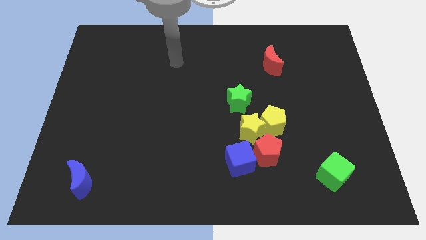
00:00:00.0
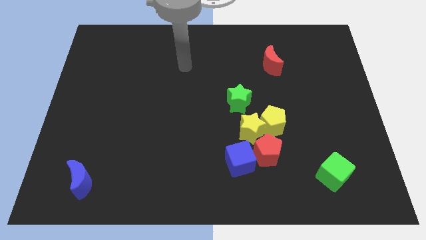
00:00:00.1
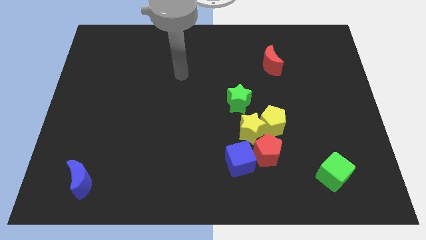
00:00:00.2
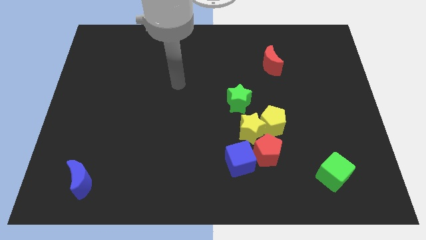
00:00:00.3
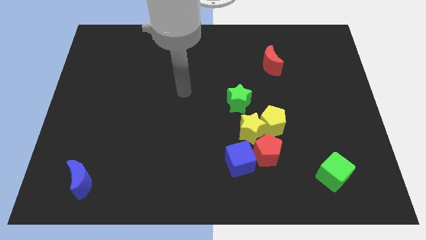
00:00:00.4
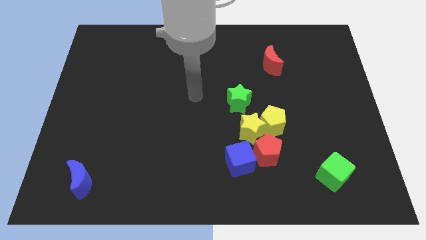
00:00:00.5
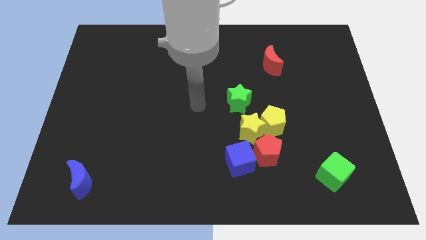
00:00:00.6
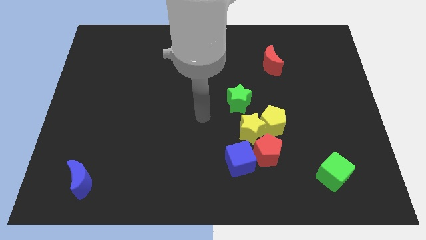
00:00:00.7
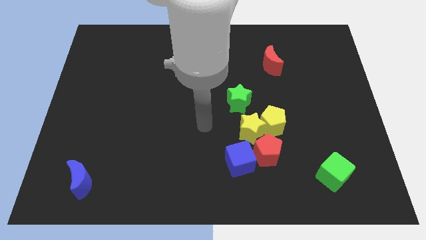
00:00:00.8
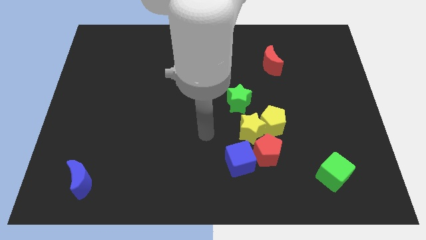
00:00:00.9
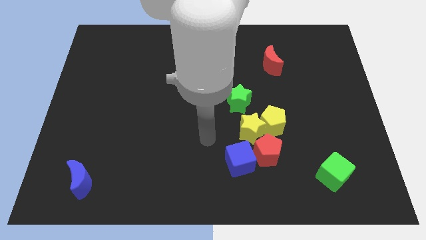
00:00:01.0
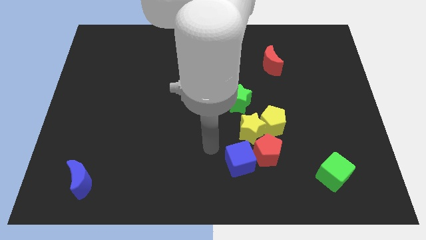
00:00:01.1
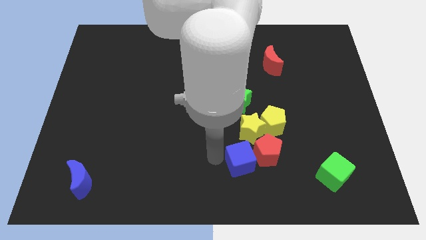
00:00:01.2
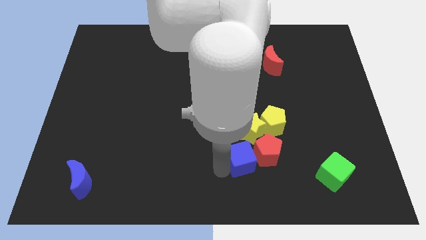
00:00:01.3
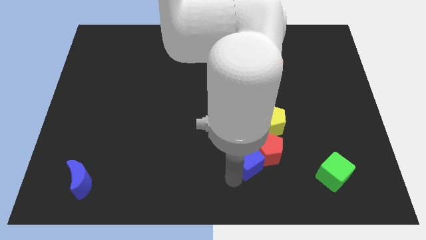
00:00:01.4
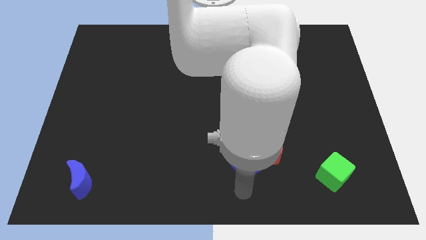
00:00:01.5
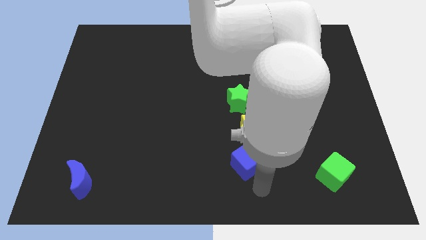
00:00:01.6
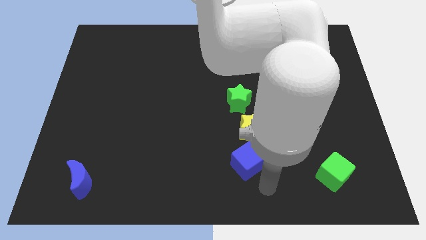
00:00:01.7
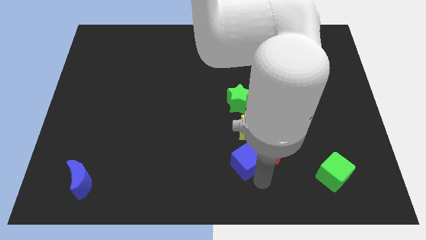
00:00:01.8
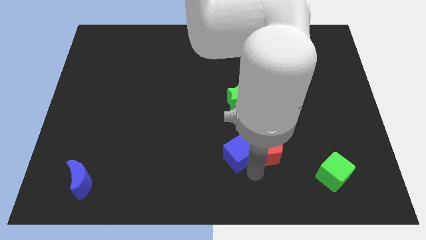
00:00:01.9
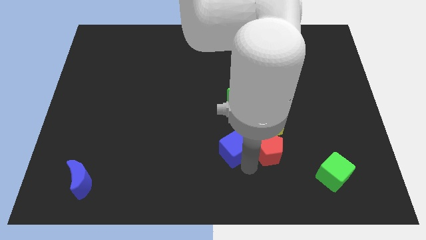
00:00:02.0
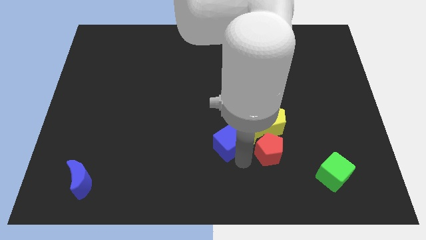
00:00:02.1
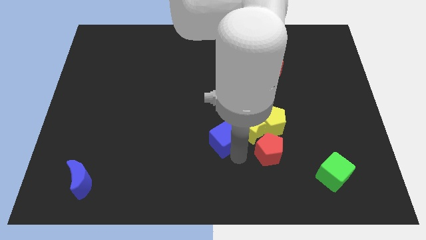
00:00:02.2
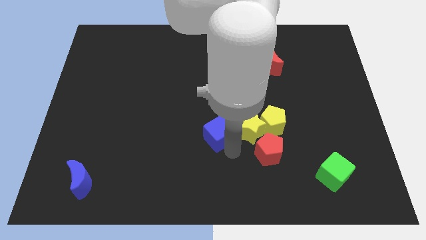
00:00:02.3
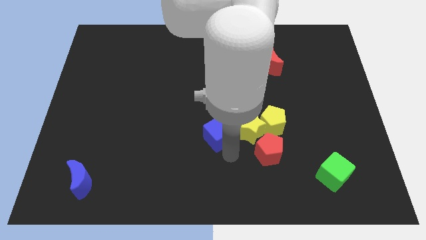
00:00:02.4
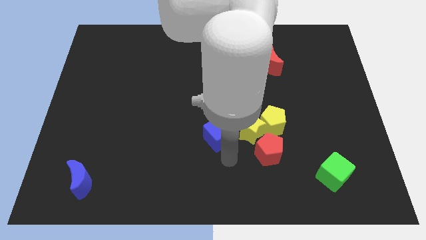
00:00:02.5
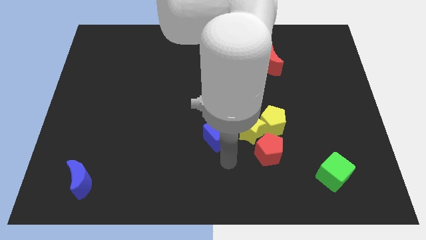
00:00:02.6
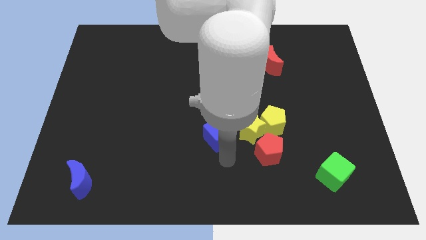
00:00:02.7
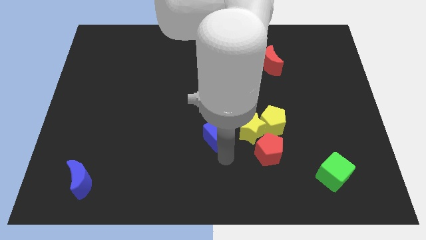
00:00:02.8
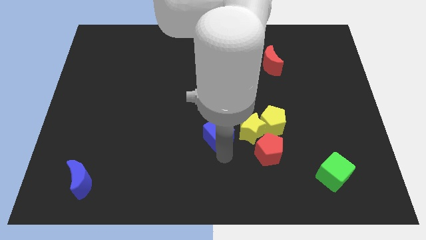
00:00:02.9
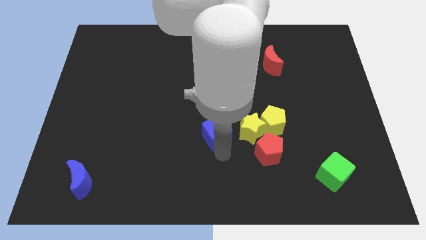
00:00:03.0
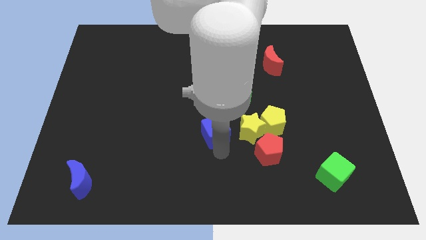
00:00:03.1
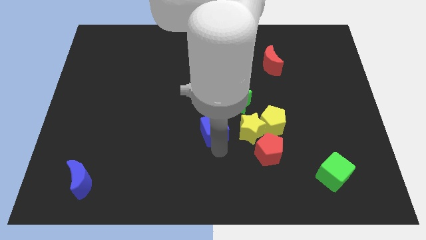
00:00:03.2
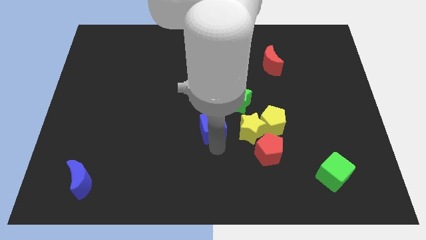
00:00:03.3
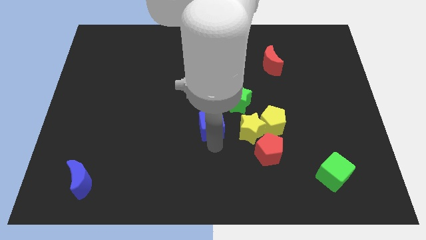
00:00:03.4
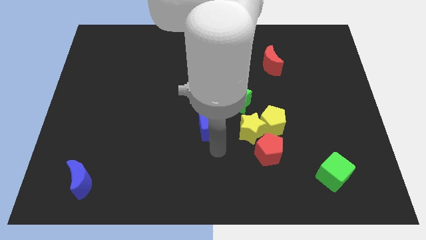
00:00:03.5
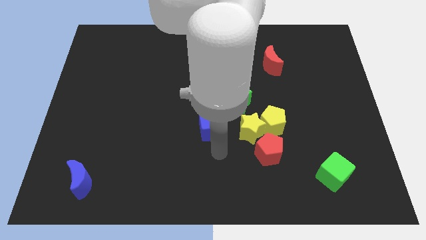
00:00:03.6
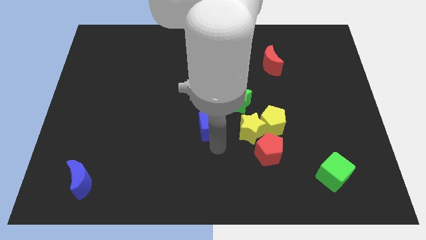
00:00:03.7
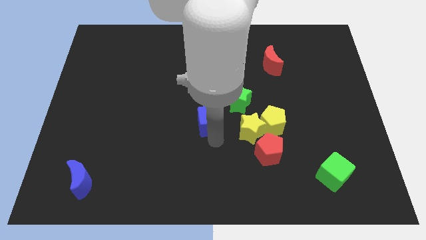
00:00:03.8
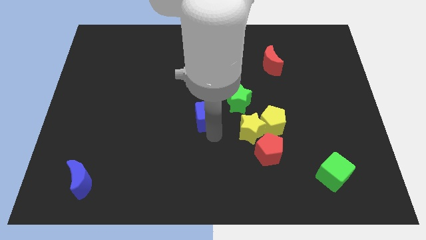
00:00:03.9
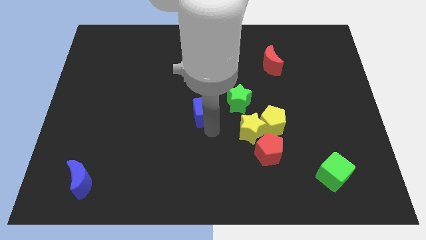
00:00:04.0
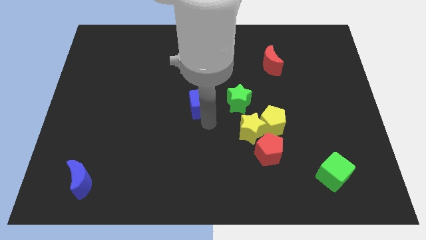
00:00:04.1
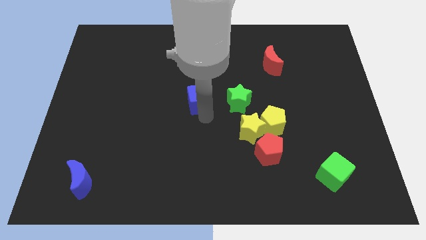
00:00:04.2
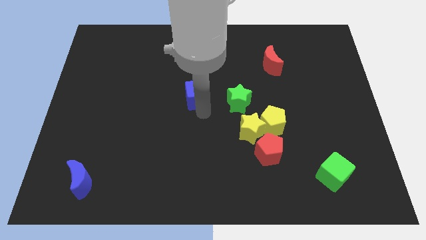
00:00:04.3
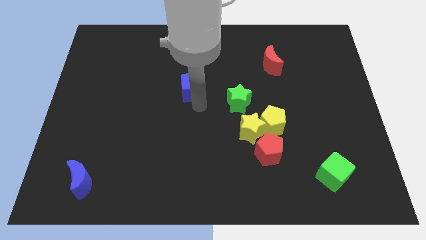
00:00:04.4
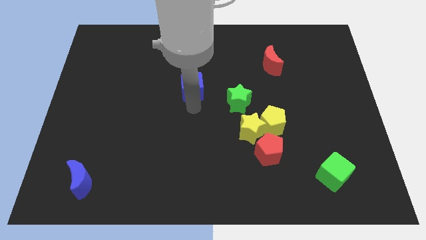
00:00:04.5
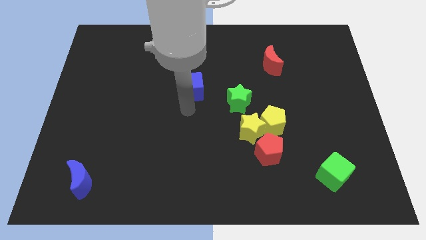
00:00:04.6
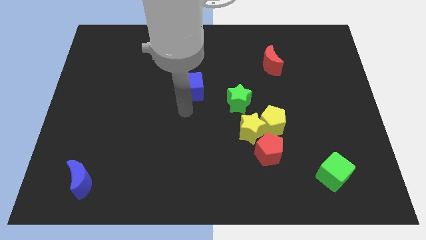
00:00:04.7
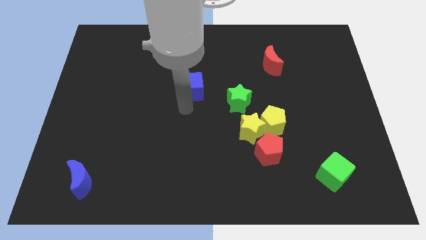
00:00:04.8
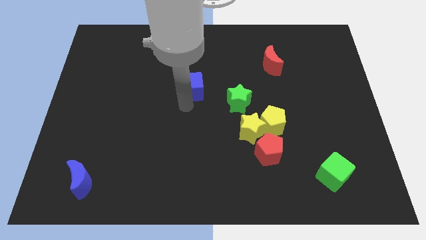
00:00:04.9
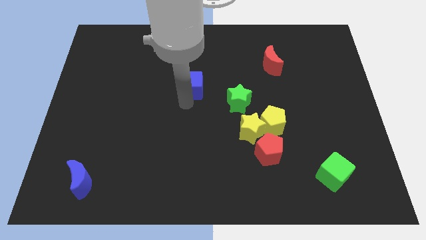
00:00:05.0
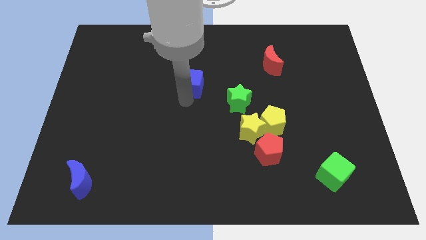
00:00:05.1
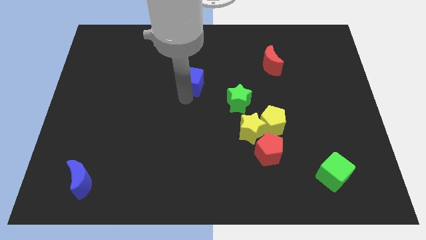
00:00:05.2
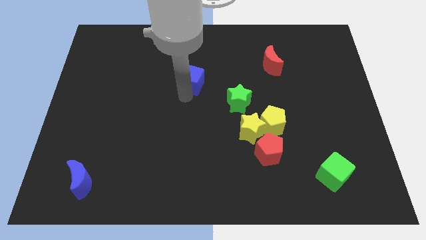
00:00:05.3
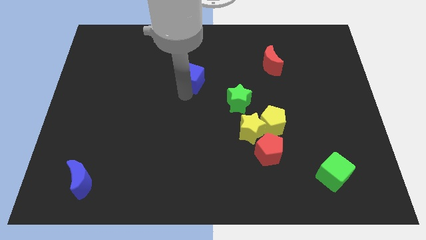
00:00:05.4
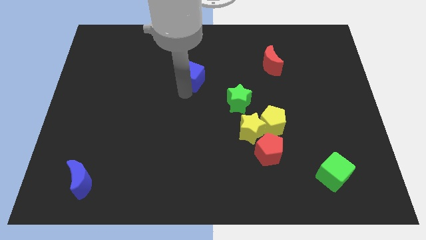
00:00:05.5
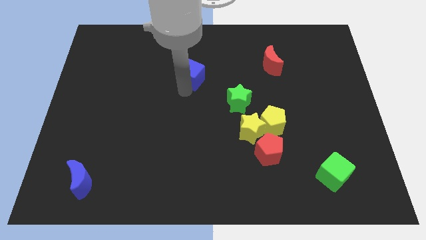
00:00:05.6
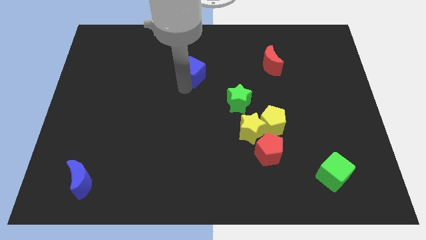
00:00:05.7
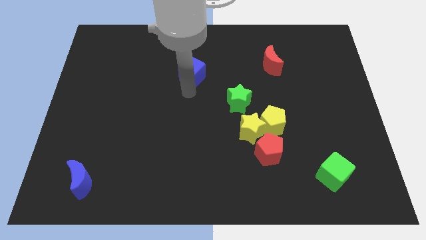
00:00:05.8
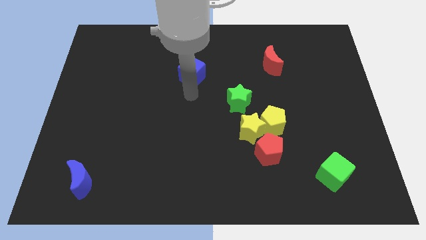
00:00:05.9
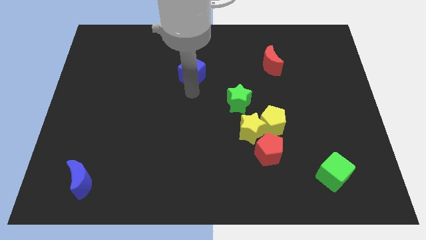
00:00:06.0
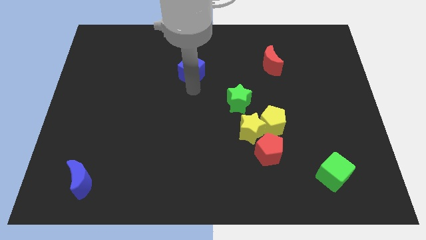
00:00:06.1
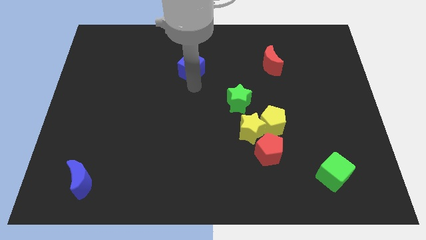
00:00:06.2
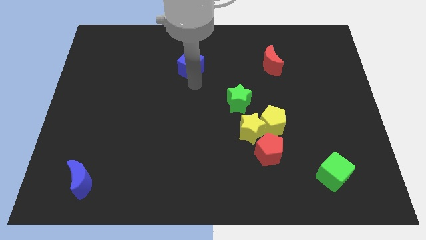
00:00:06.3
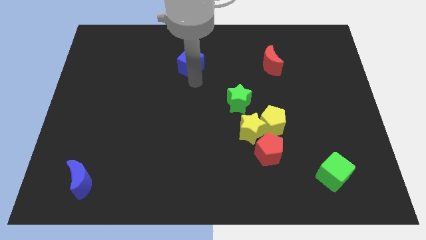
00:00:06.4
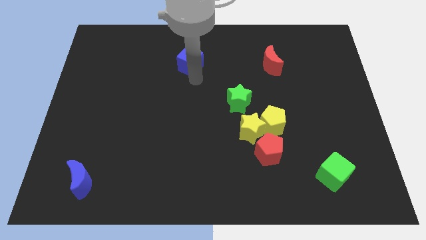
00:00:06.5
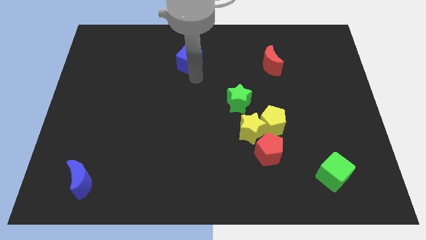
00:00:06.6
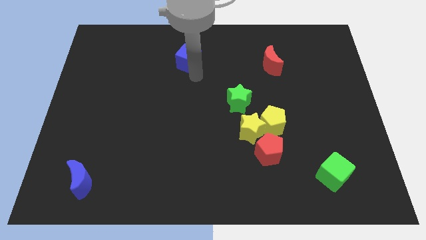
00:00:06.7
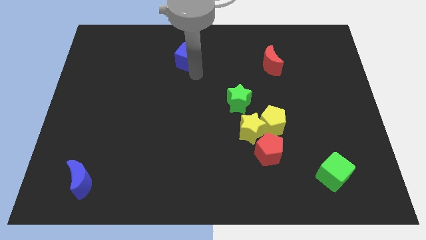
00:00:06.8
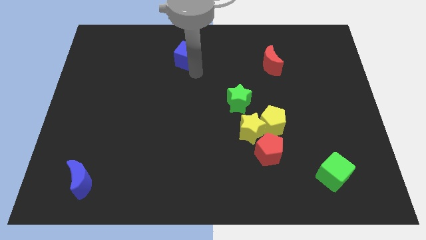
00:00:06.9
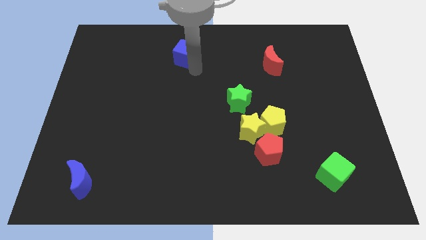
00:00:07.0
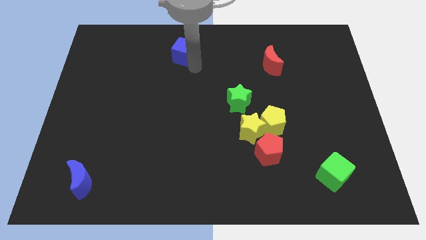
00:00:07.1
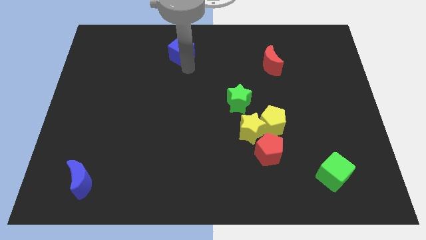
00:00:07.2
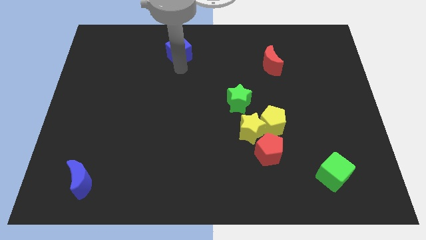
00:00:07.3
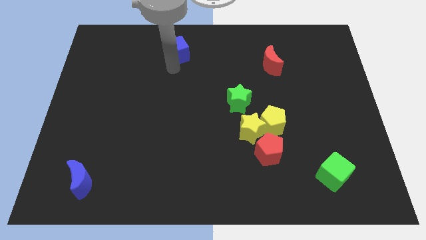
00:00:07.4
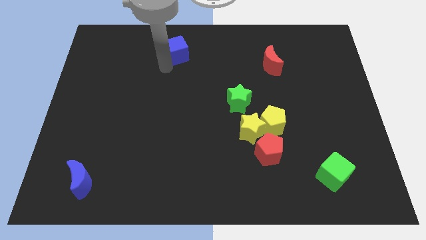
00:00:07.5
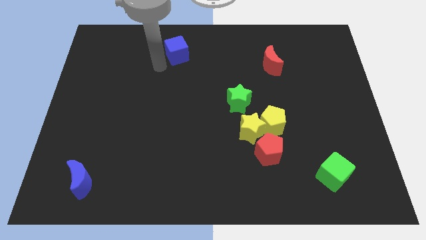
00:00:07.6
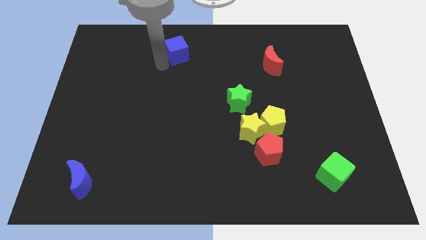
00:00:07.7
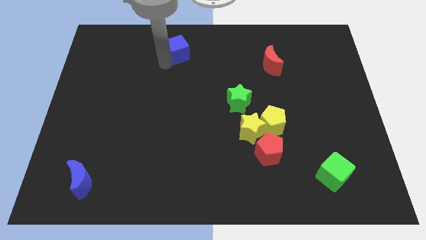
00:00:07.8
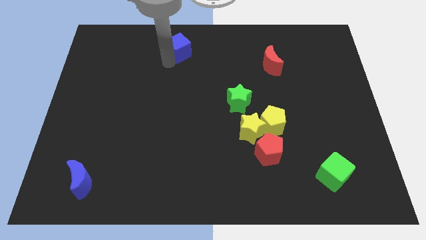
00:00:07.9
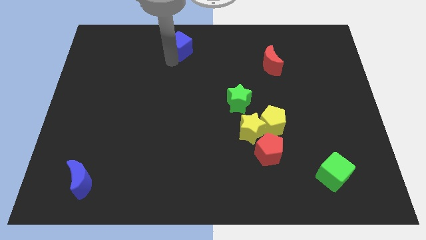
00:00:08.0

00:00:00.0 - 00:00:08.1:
put the blue cube to the top side
